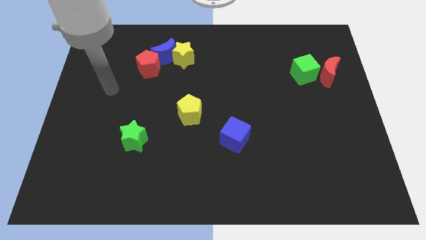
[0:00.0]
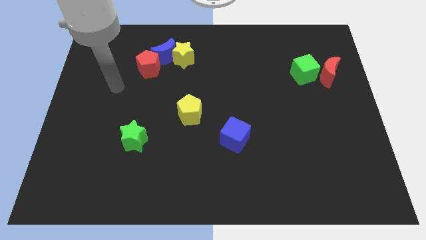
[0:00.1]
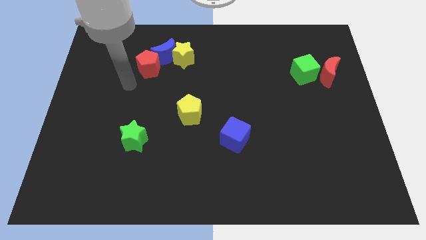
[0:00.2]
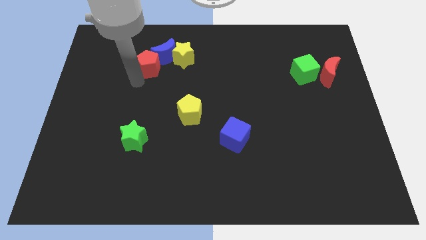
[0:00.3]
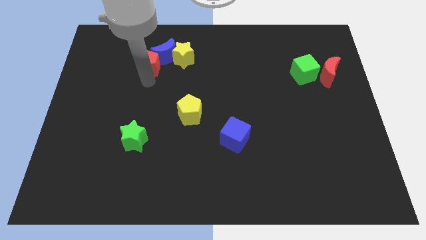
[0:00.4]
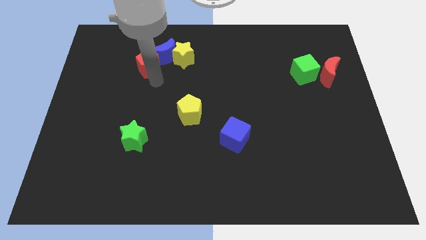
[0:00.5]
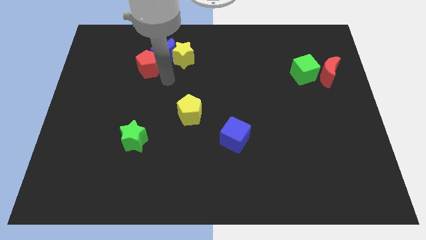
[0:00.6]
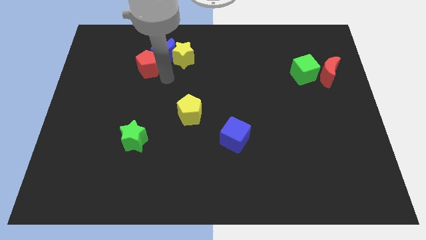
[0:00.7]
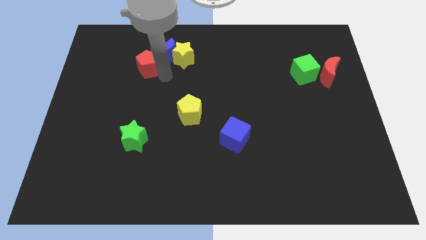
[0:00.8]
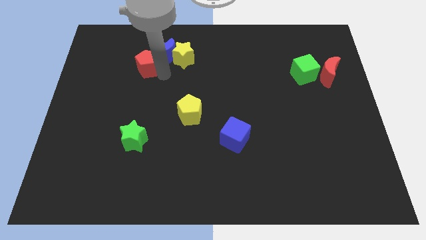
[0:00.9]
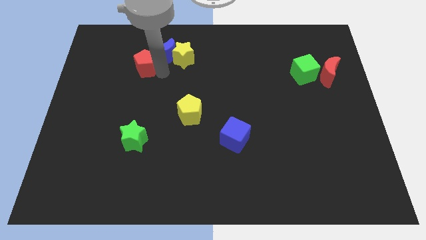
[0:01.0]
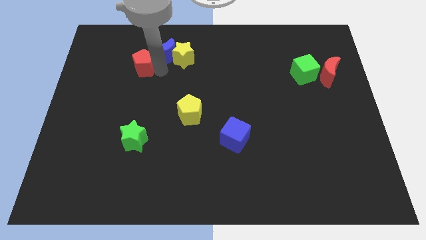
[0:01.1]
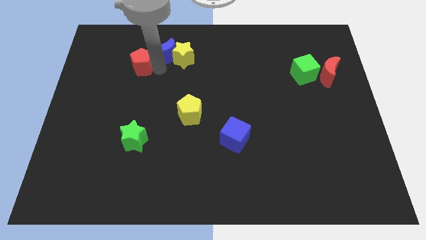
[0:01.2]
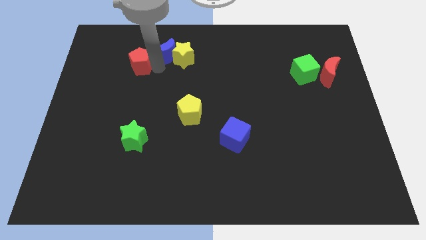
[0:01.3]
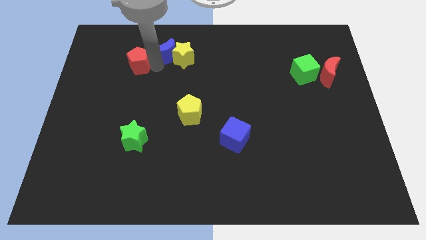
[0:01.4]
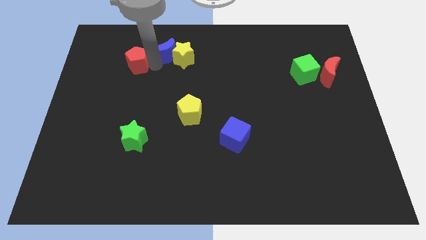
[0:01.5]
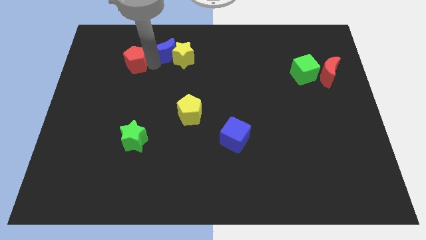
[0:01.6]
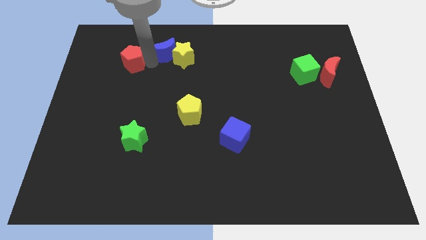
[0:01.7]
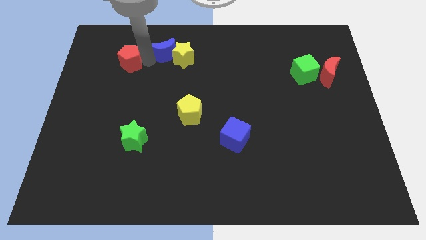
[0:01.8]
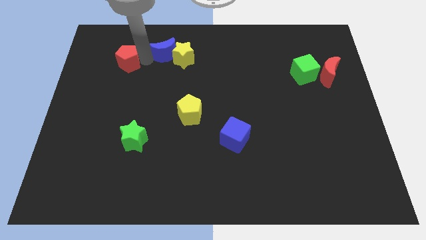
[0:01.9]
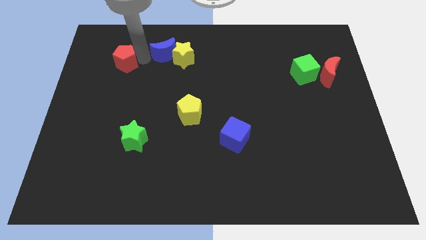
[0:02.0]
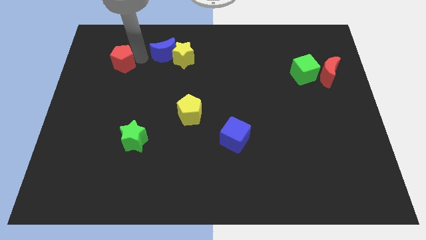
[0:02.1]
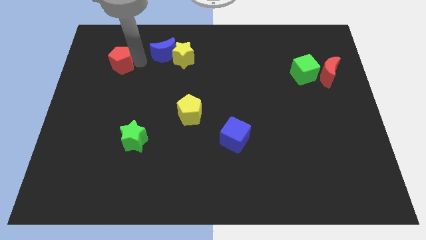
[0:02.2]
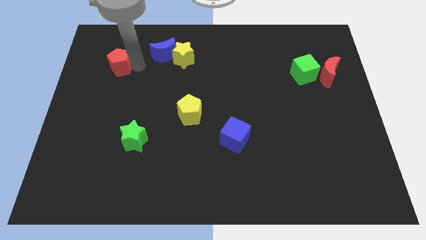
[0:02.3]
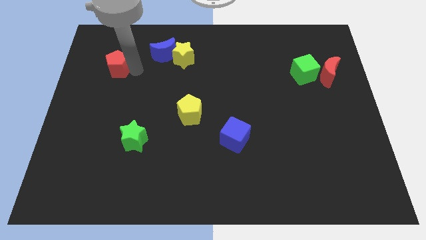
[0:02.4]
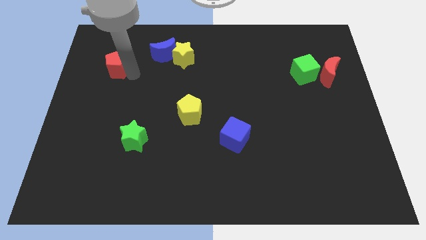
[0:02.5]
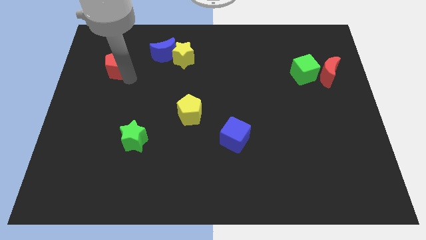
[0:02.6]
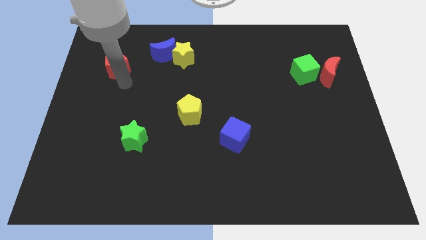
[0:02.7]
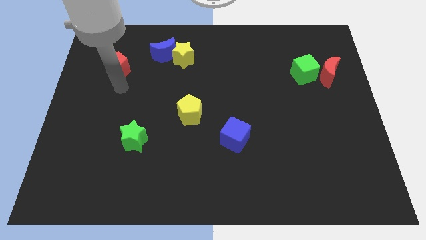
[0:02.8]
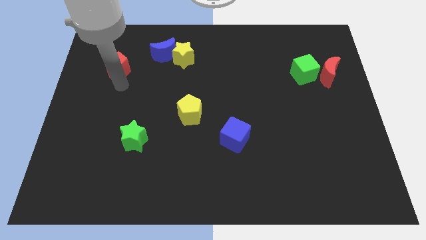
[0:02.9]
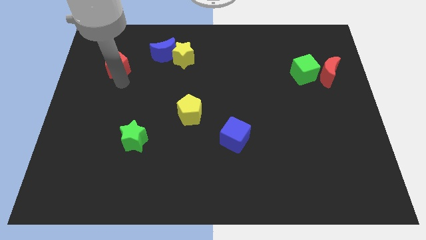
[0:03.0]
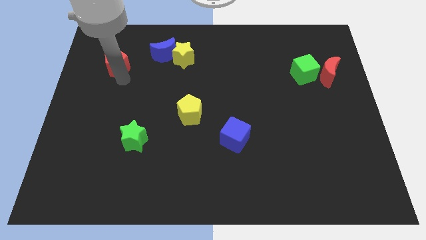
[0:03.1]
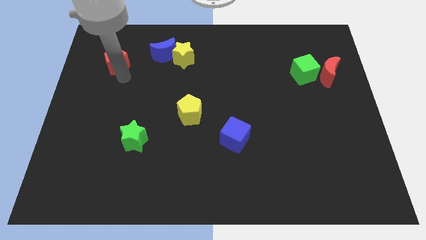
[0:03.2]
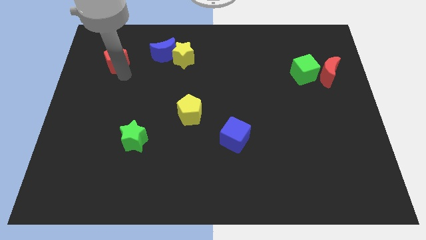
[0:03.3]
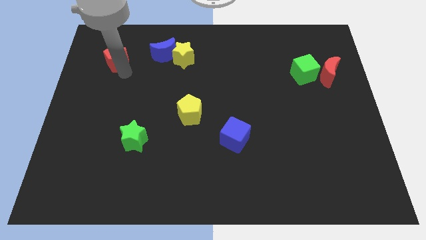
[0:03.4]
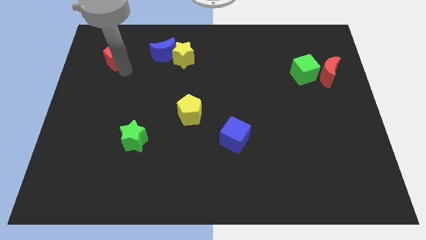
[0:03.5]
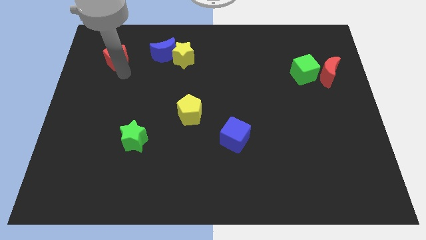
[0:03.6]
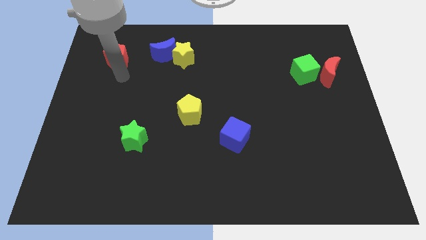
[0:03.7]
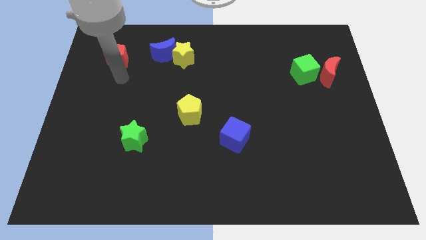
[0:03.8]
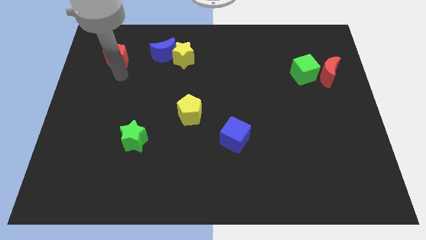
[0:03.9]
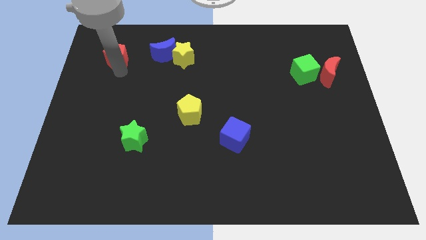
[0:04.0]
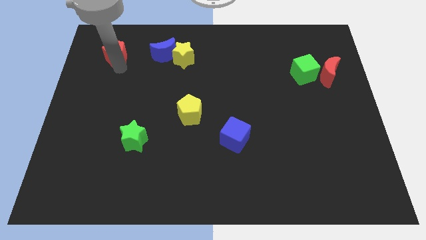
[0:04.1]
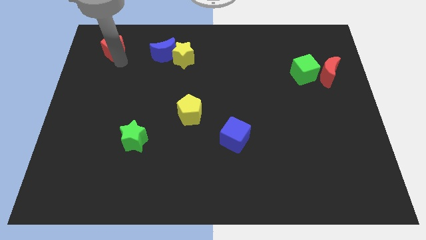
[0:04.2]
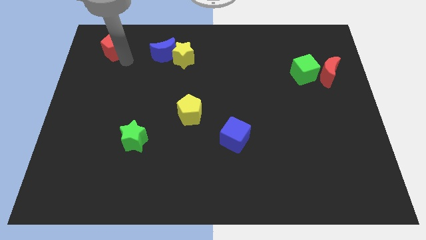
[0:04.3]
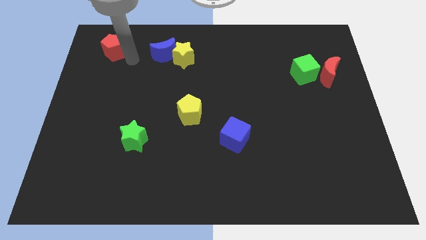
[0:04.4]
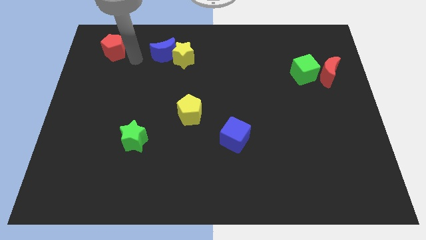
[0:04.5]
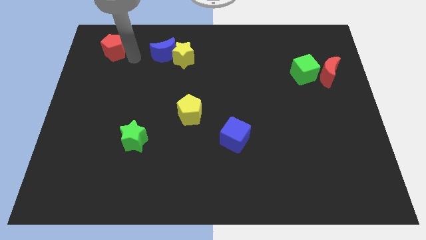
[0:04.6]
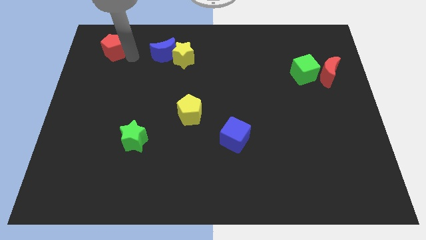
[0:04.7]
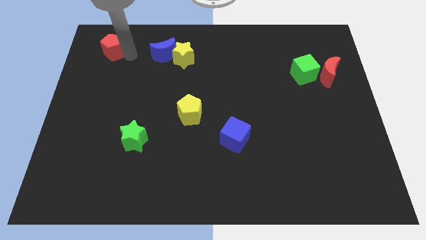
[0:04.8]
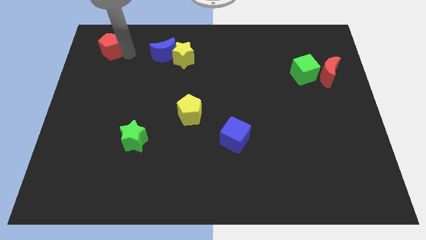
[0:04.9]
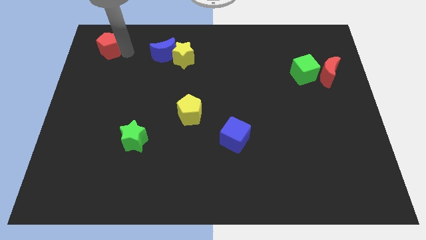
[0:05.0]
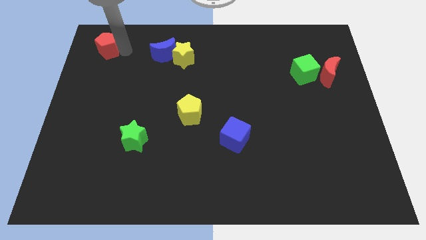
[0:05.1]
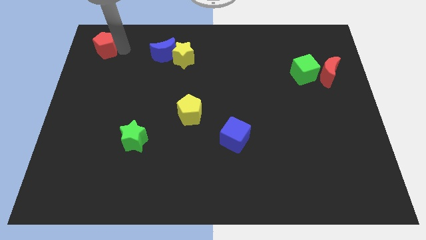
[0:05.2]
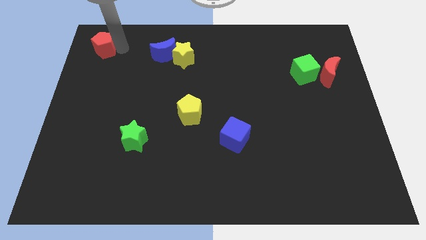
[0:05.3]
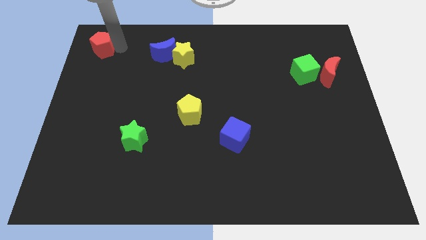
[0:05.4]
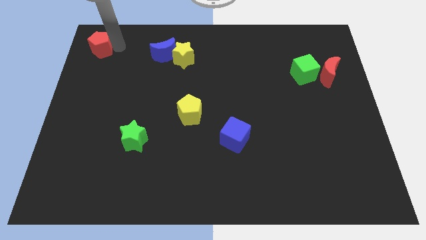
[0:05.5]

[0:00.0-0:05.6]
push the red pentagon to the top left

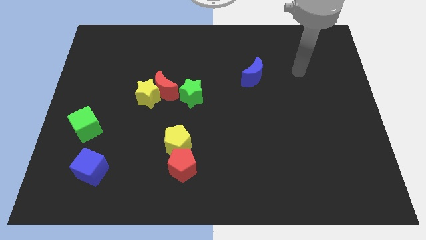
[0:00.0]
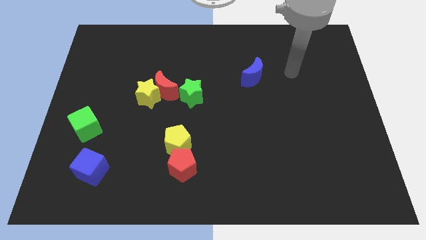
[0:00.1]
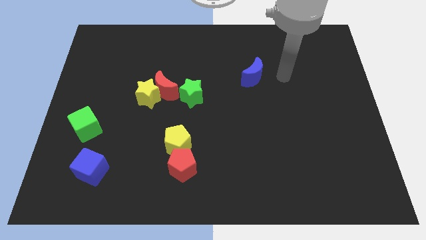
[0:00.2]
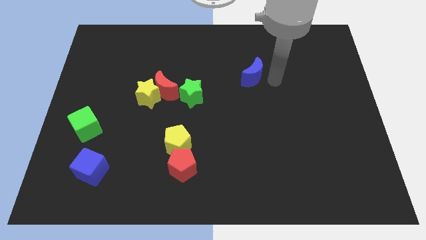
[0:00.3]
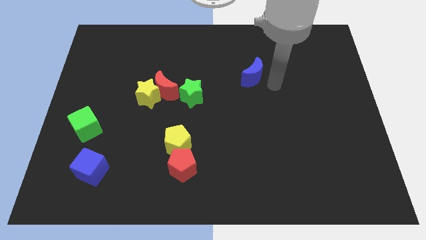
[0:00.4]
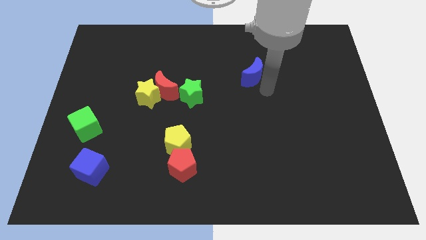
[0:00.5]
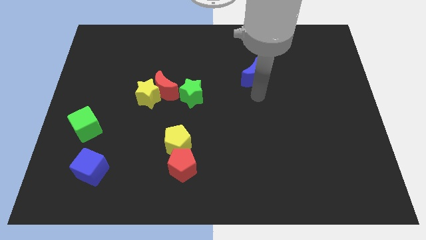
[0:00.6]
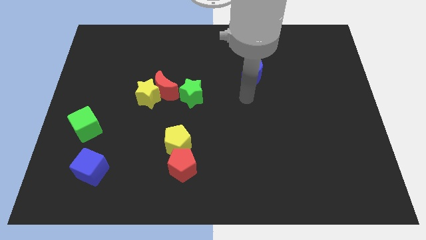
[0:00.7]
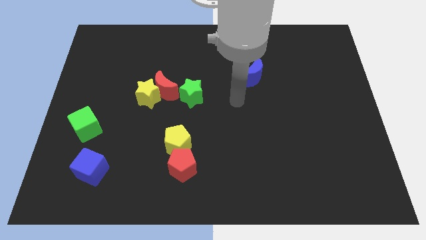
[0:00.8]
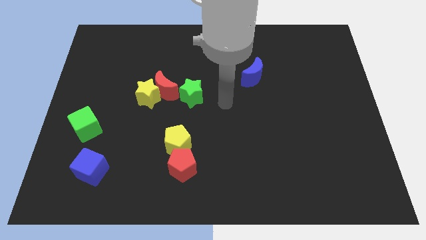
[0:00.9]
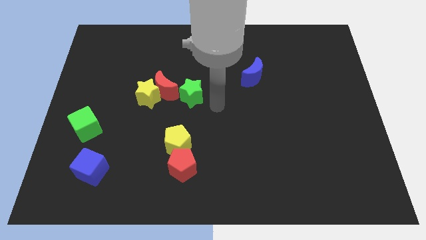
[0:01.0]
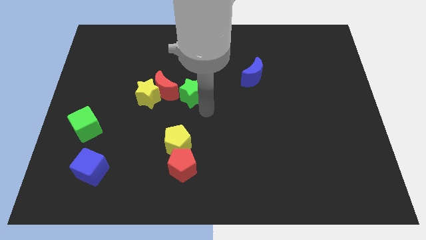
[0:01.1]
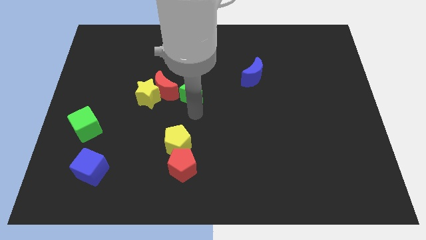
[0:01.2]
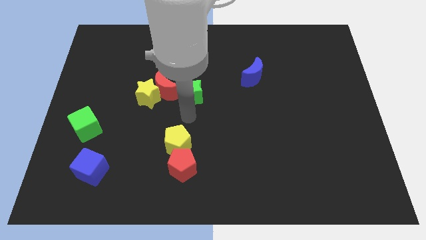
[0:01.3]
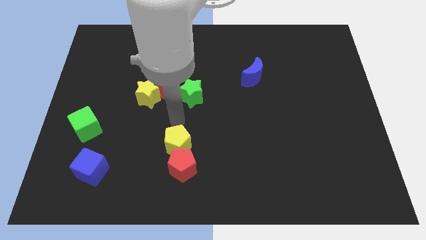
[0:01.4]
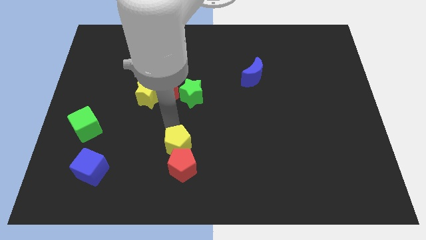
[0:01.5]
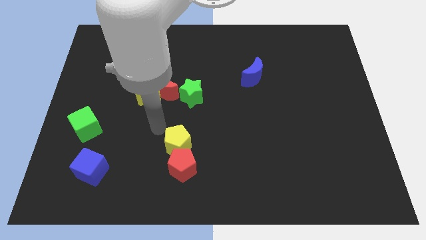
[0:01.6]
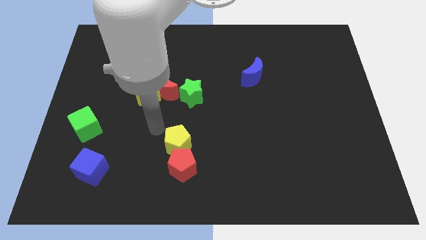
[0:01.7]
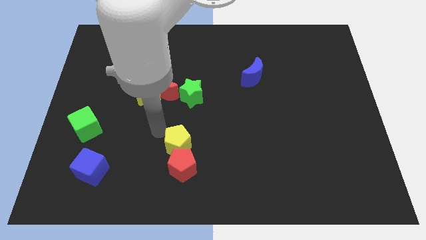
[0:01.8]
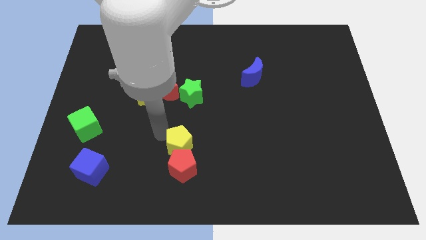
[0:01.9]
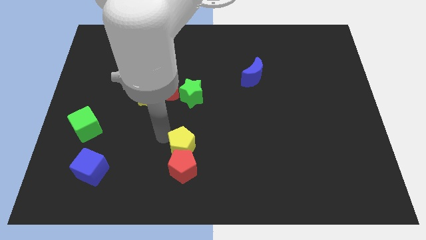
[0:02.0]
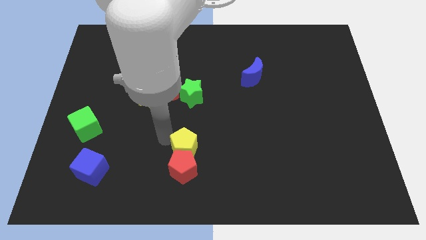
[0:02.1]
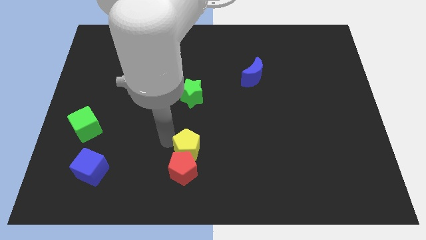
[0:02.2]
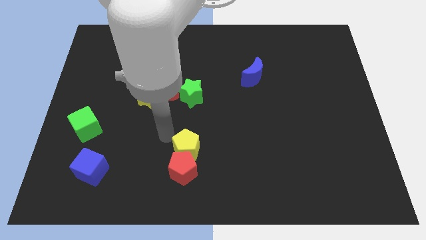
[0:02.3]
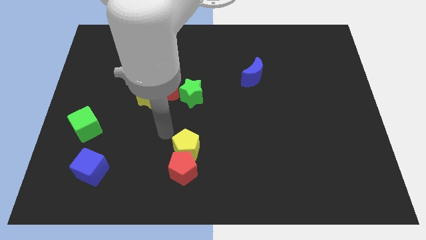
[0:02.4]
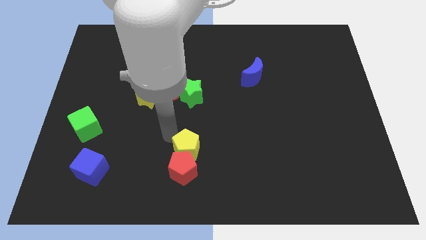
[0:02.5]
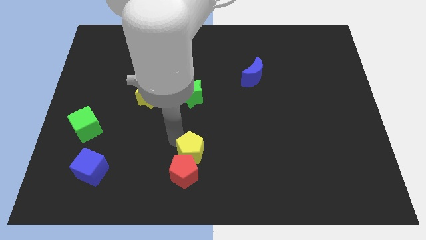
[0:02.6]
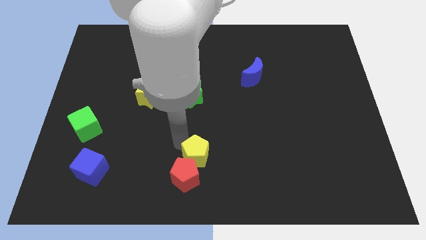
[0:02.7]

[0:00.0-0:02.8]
slide the yellow pentagon to the bottom side
